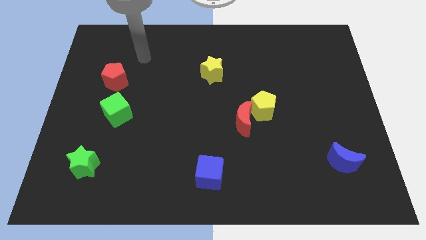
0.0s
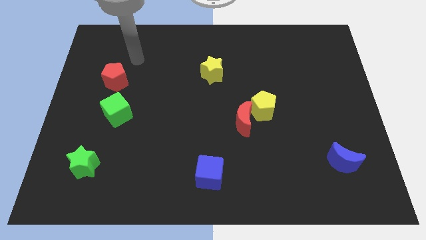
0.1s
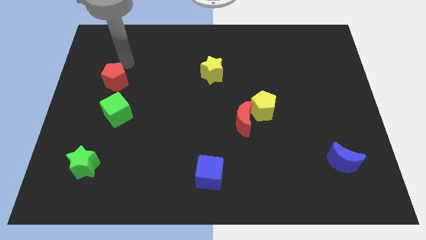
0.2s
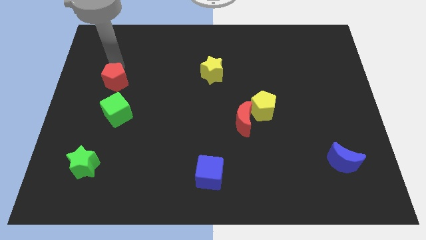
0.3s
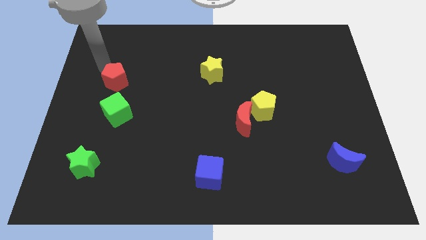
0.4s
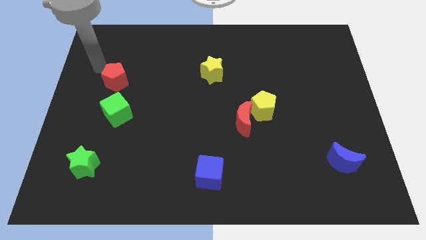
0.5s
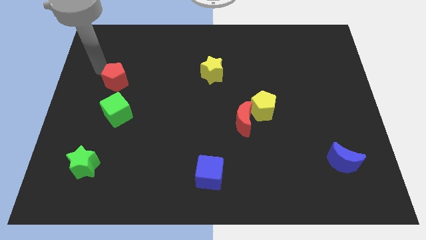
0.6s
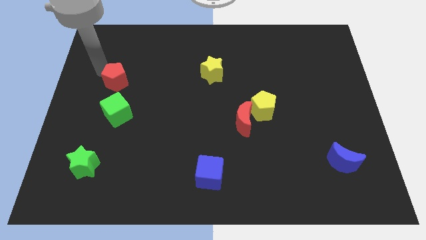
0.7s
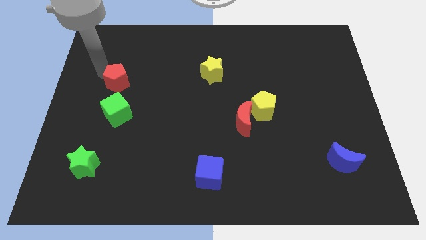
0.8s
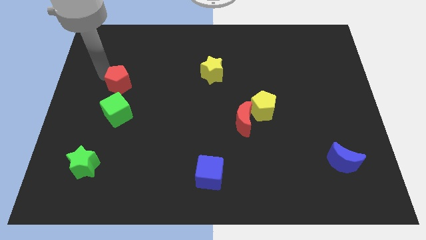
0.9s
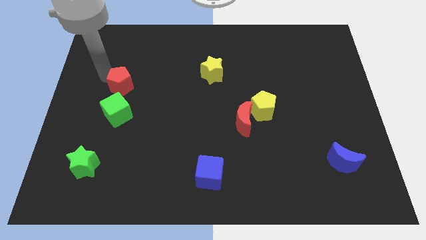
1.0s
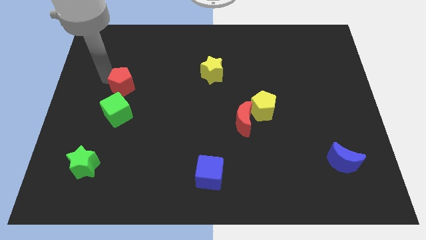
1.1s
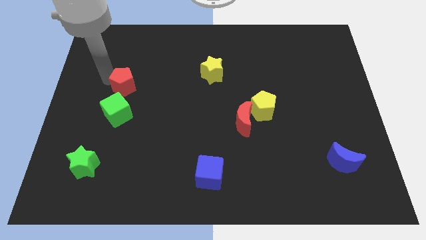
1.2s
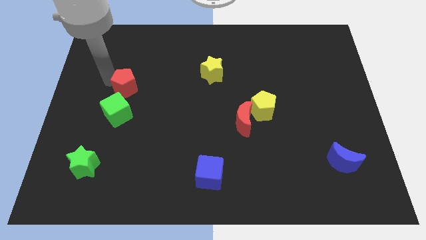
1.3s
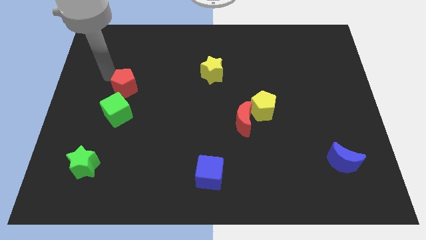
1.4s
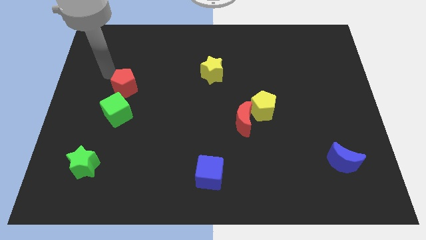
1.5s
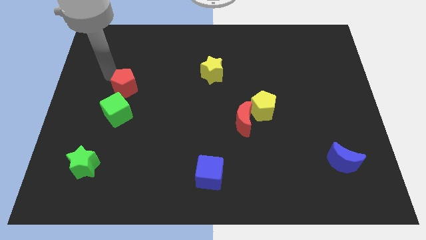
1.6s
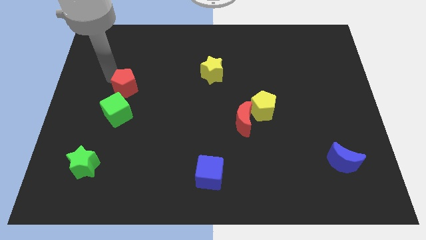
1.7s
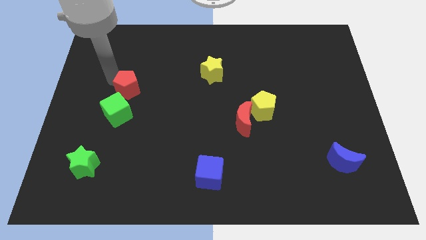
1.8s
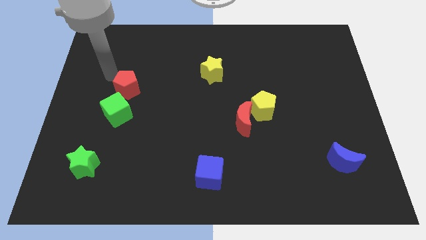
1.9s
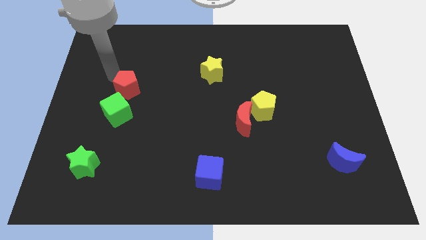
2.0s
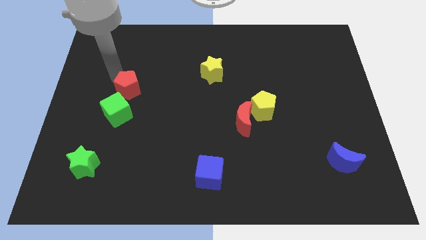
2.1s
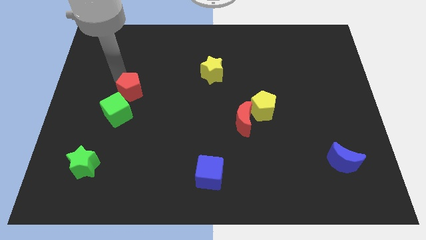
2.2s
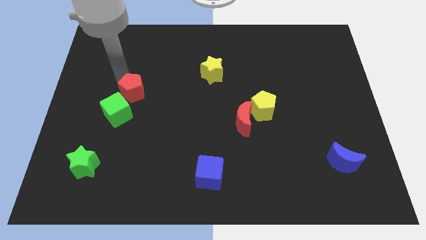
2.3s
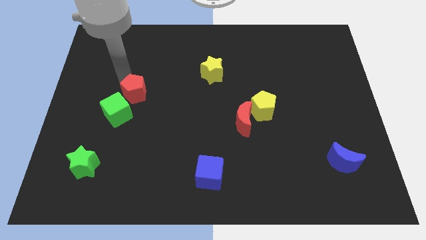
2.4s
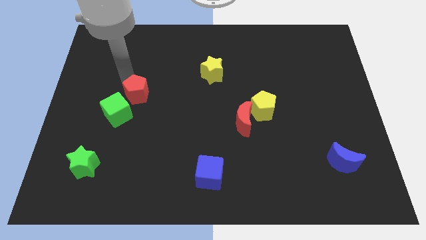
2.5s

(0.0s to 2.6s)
slightly slide the red pentagon down and to the right diagonally

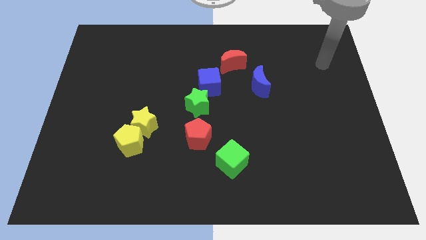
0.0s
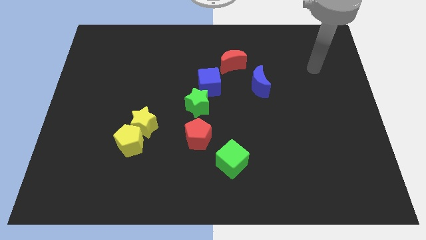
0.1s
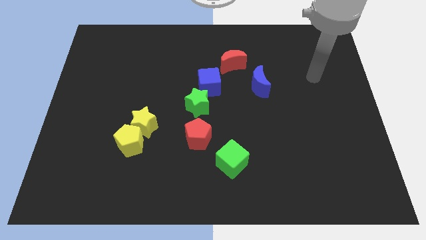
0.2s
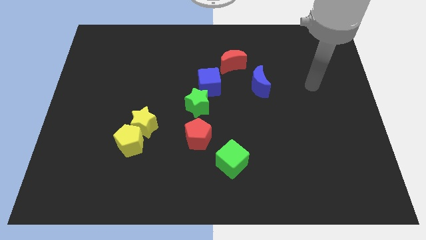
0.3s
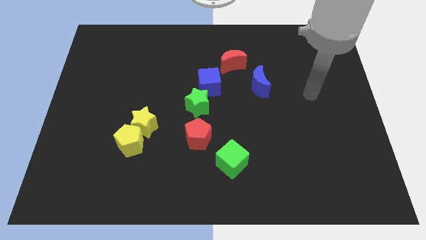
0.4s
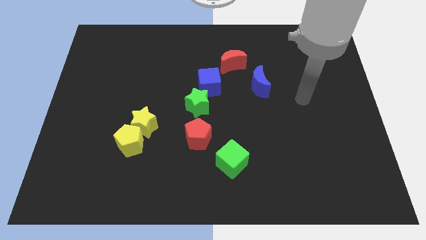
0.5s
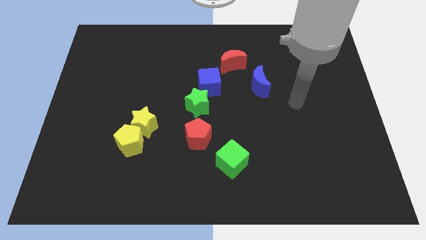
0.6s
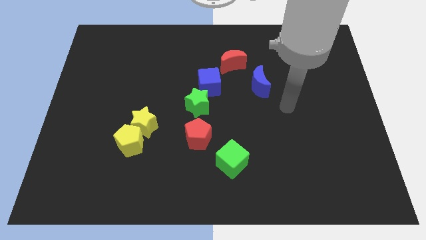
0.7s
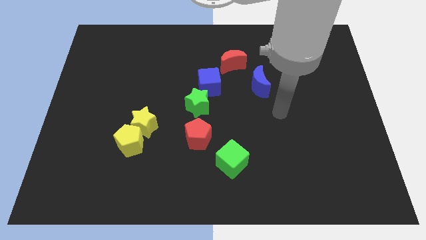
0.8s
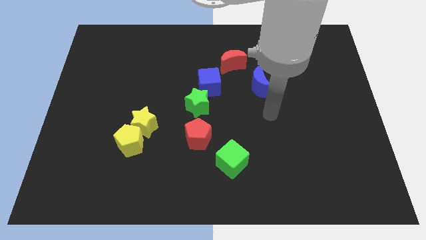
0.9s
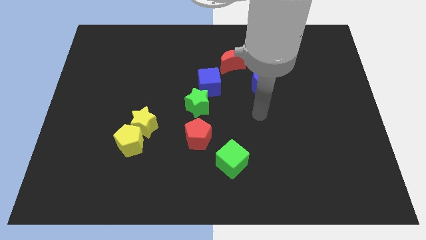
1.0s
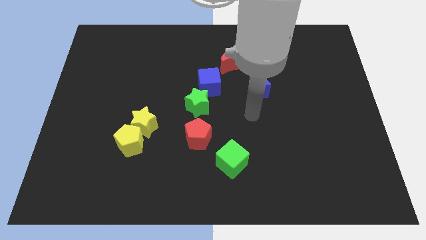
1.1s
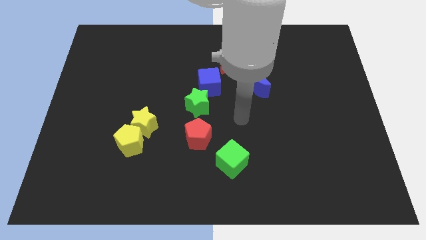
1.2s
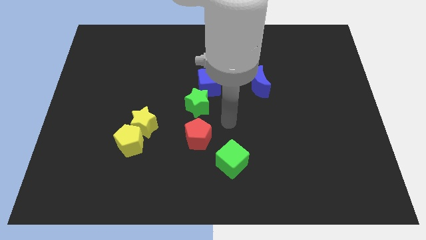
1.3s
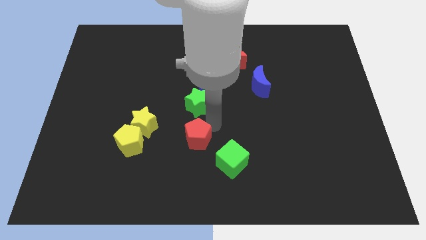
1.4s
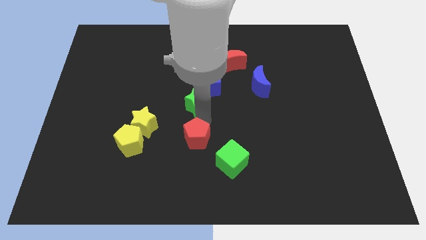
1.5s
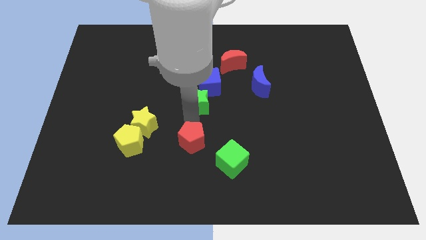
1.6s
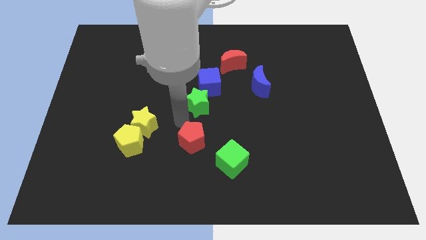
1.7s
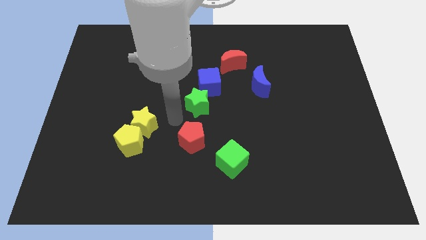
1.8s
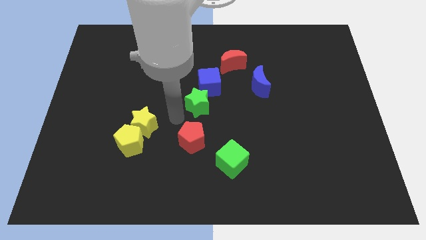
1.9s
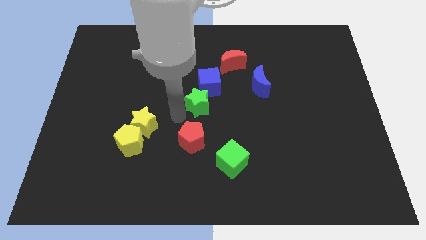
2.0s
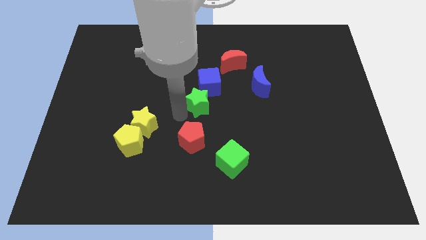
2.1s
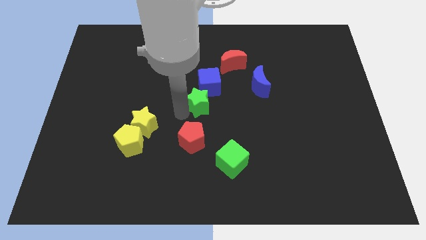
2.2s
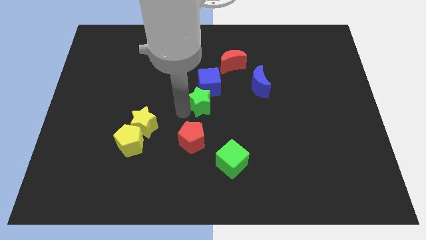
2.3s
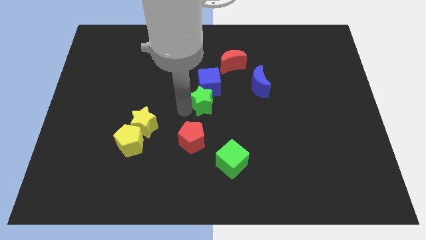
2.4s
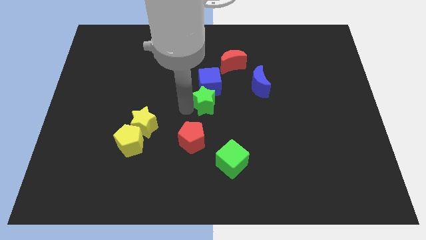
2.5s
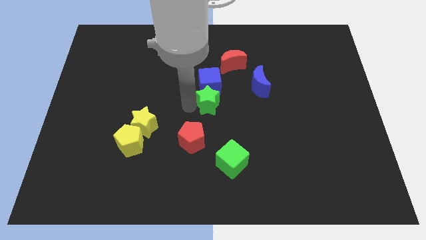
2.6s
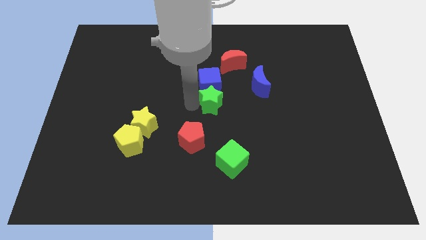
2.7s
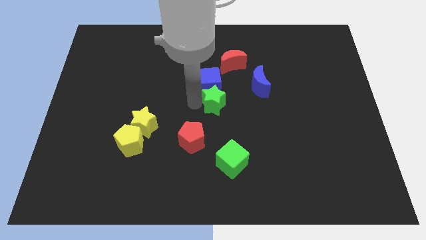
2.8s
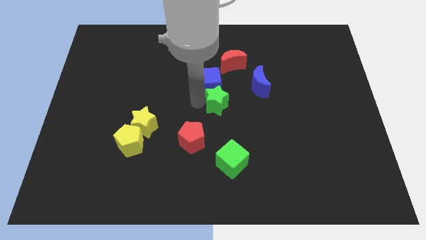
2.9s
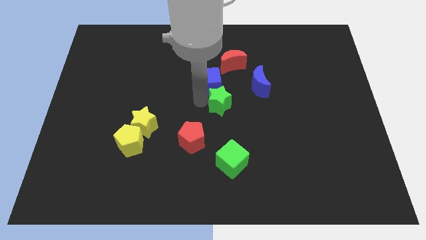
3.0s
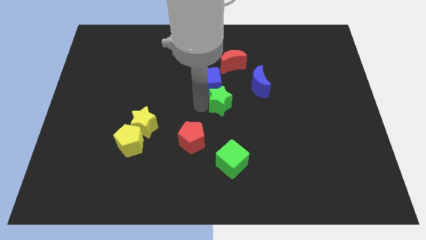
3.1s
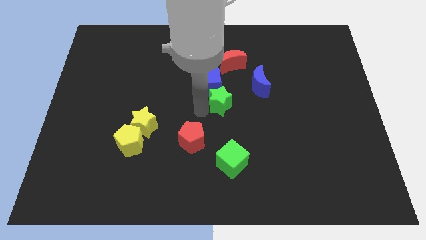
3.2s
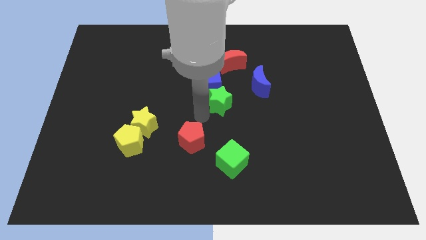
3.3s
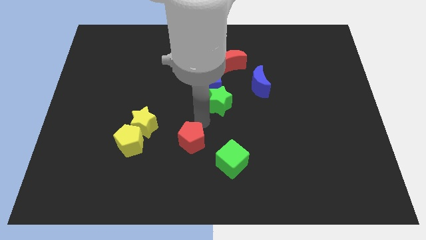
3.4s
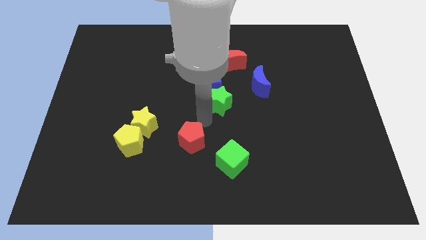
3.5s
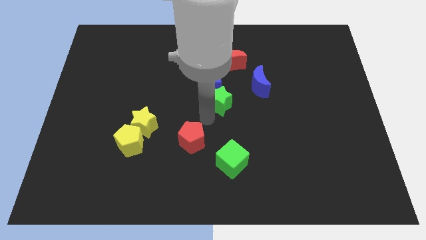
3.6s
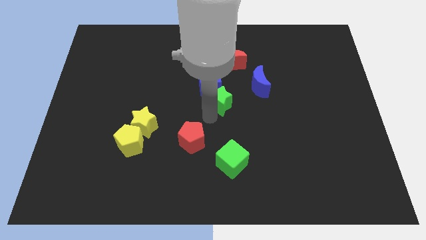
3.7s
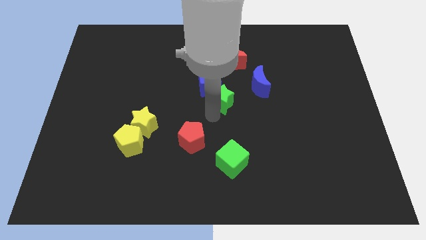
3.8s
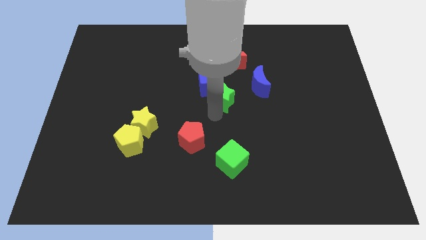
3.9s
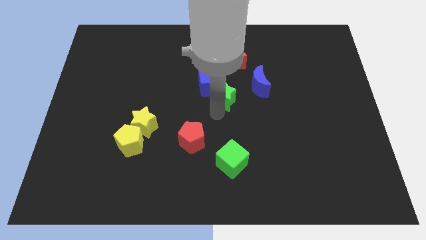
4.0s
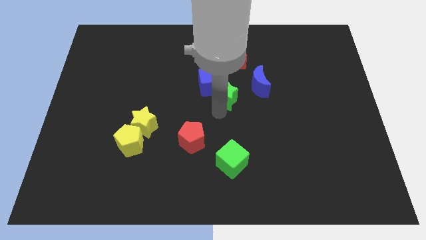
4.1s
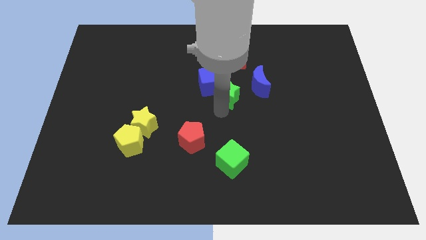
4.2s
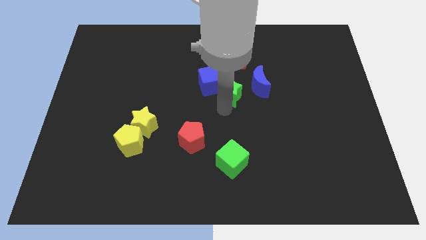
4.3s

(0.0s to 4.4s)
slightly move the green star upwards and to the right diagonally

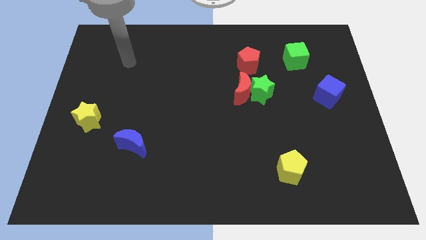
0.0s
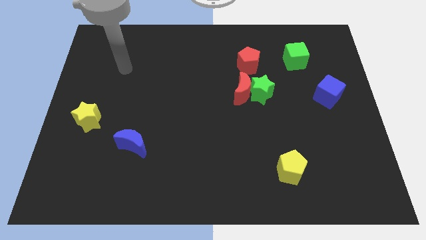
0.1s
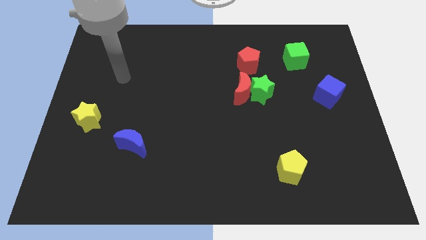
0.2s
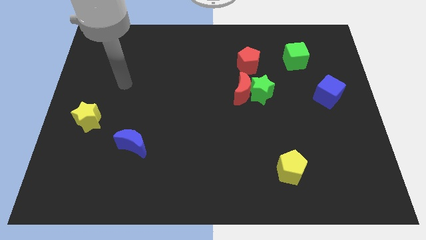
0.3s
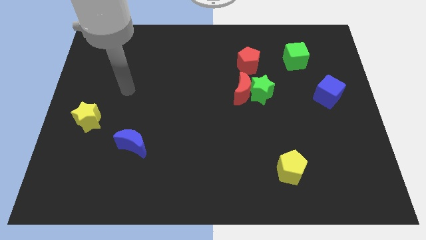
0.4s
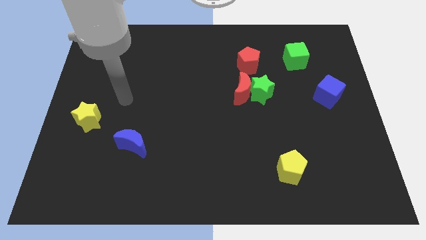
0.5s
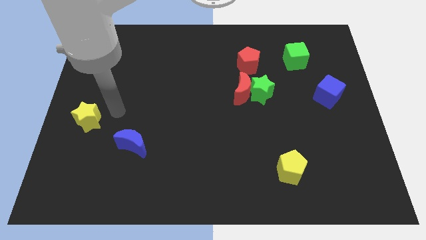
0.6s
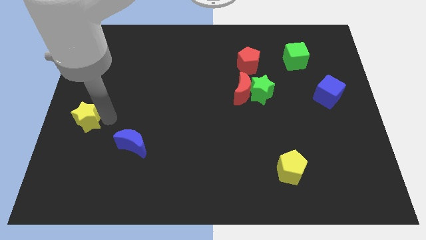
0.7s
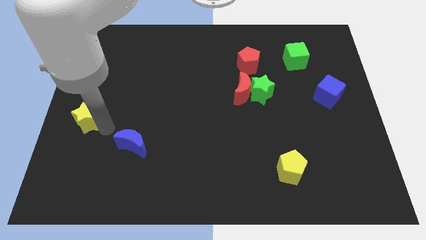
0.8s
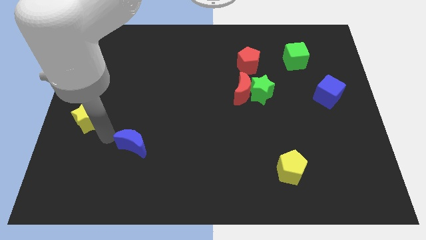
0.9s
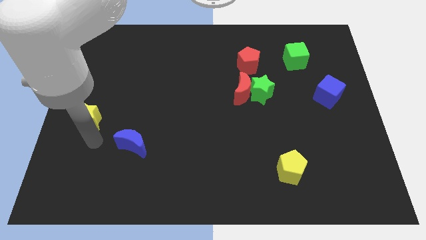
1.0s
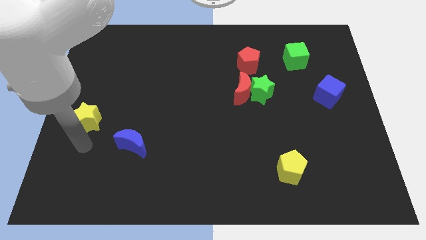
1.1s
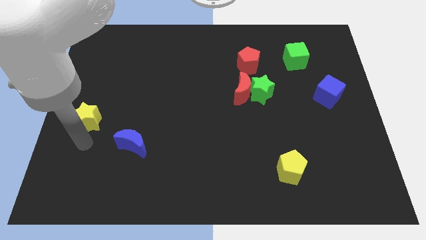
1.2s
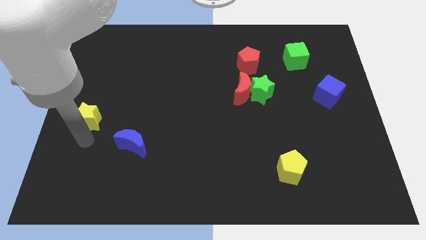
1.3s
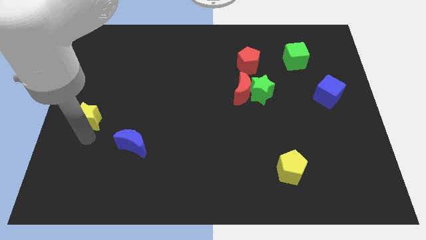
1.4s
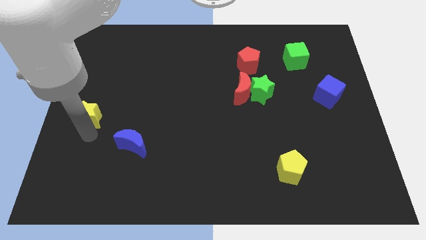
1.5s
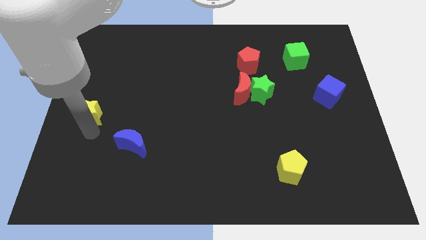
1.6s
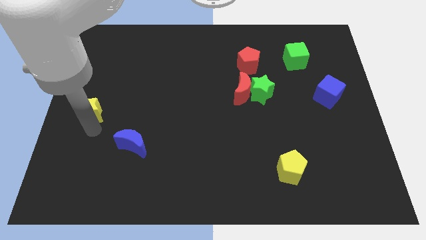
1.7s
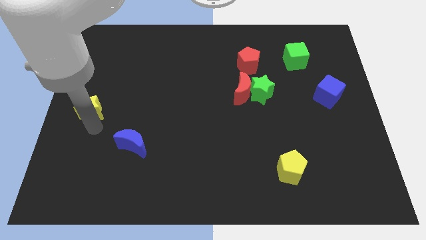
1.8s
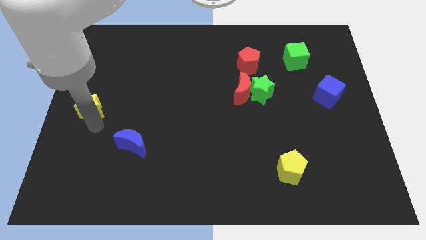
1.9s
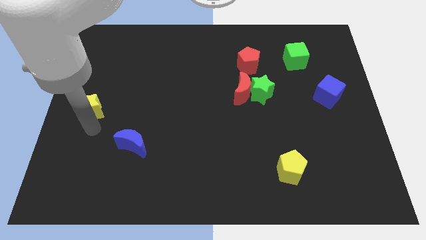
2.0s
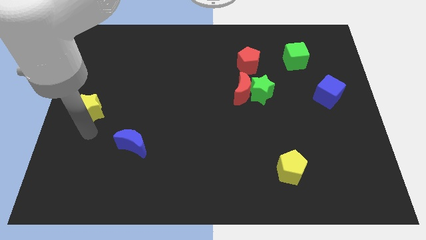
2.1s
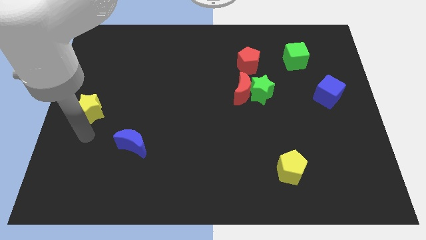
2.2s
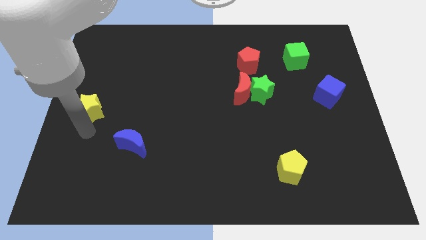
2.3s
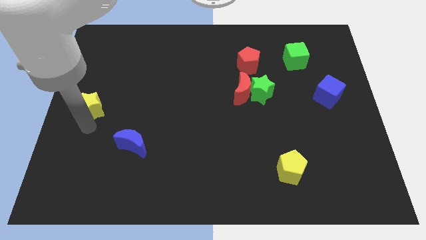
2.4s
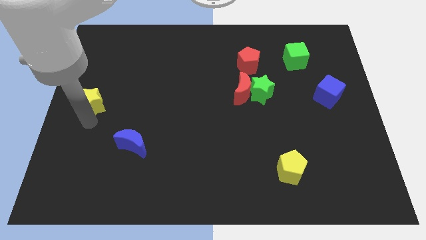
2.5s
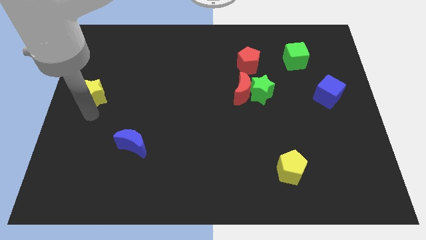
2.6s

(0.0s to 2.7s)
slightly slide the yellow star up
